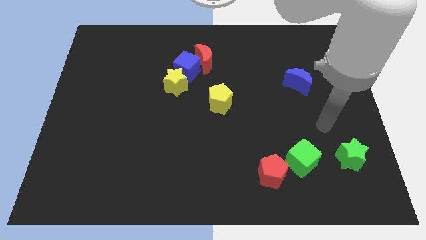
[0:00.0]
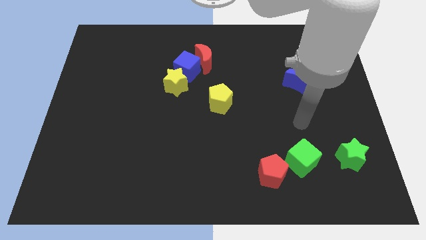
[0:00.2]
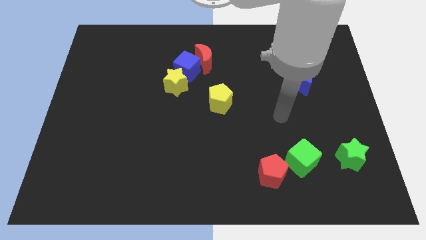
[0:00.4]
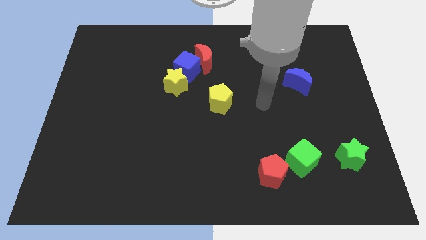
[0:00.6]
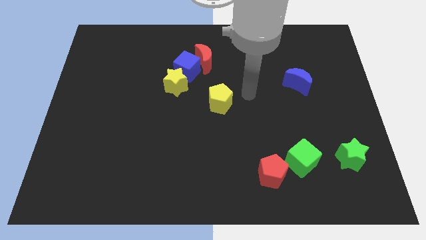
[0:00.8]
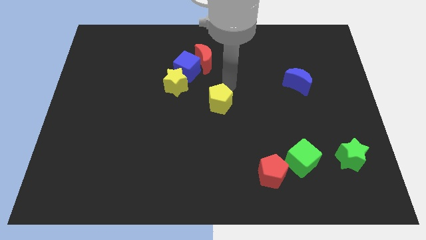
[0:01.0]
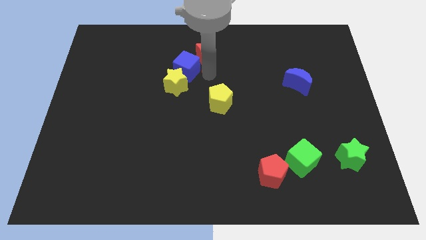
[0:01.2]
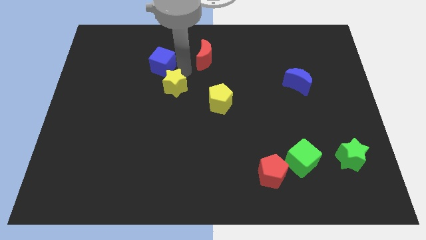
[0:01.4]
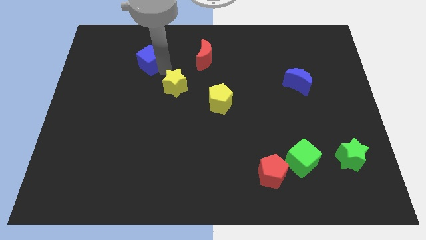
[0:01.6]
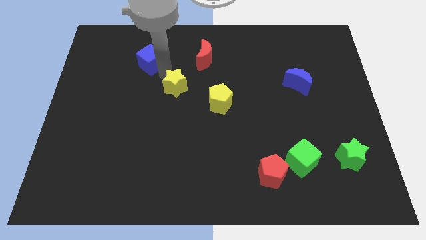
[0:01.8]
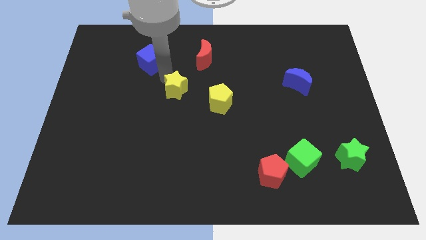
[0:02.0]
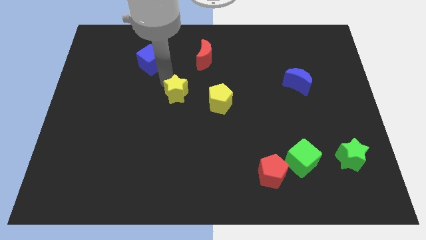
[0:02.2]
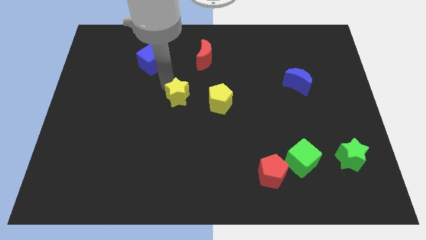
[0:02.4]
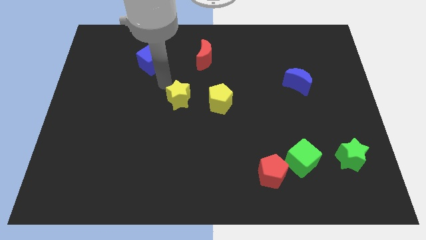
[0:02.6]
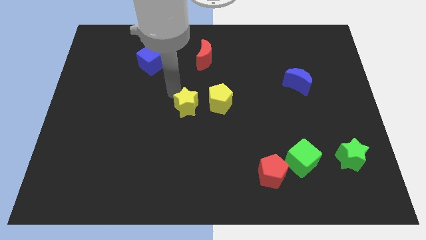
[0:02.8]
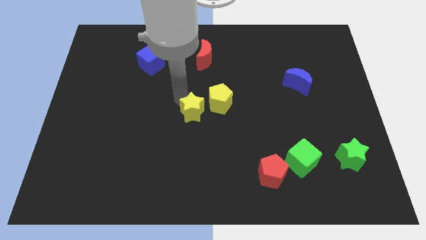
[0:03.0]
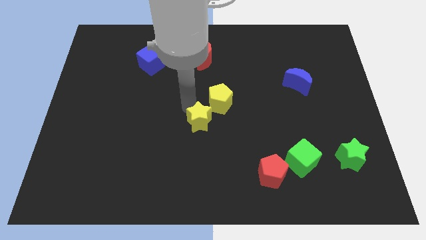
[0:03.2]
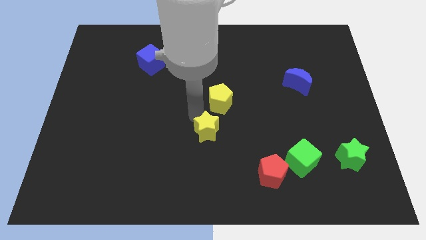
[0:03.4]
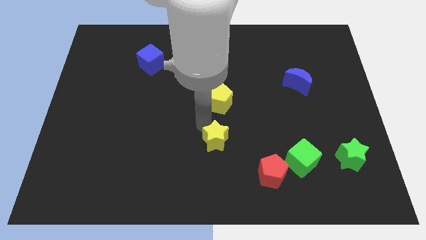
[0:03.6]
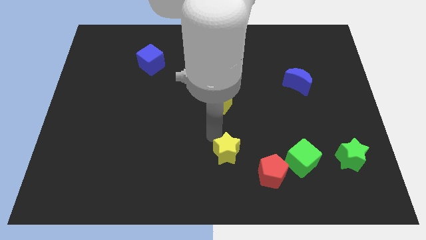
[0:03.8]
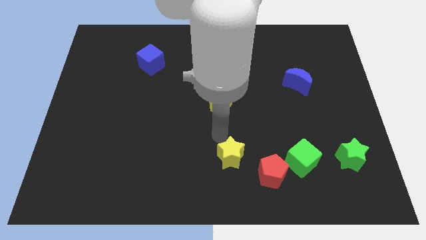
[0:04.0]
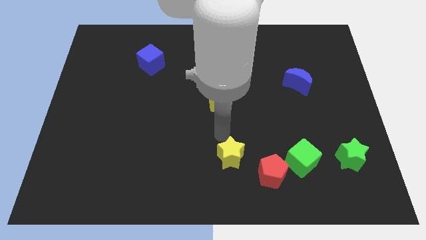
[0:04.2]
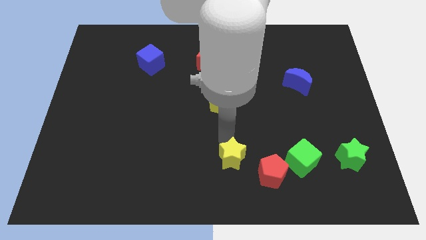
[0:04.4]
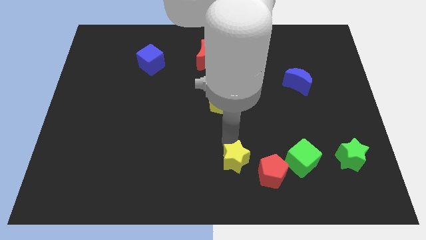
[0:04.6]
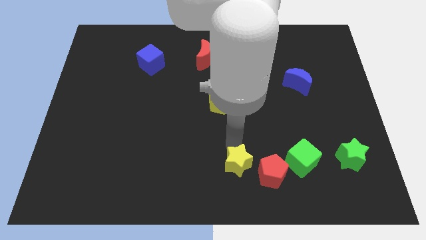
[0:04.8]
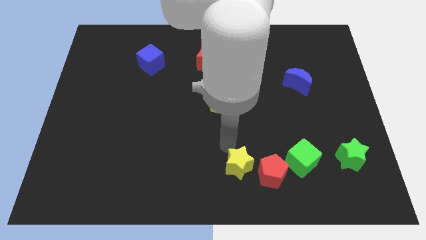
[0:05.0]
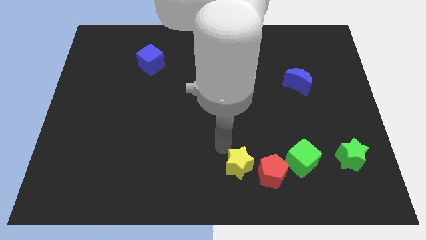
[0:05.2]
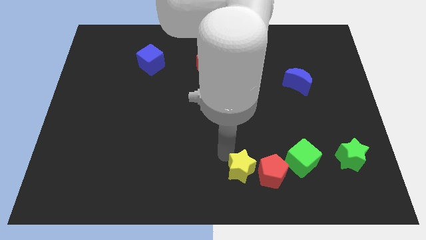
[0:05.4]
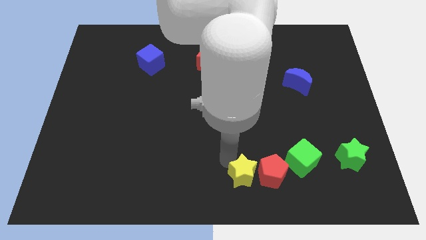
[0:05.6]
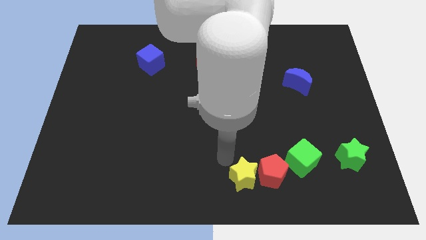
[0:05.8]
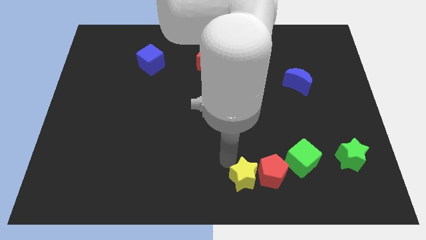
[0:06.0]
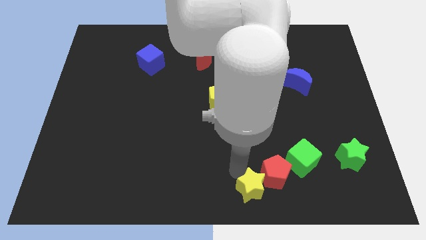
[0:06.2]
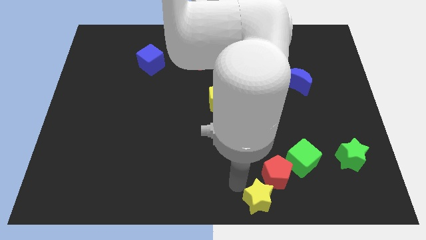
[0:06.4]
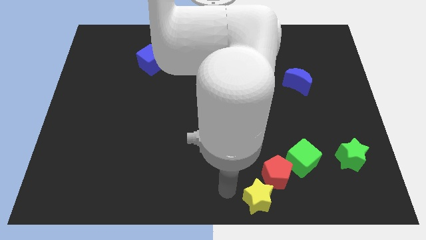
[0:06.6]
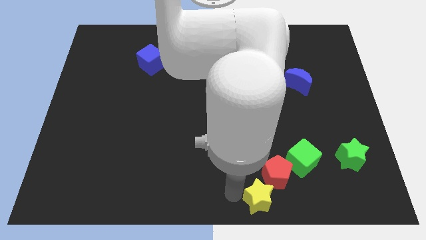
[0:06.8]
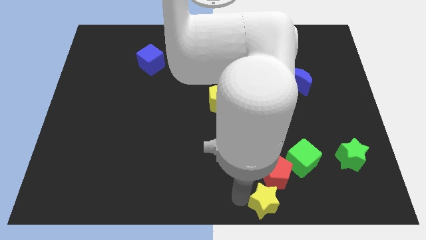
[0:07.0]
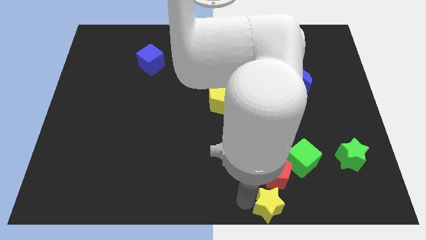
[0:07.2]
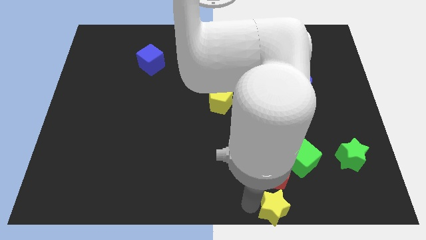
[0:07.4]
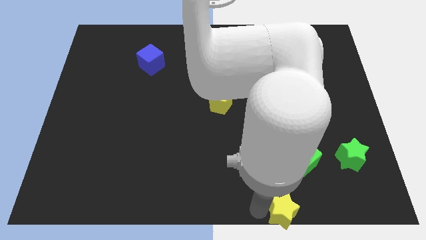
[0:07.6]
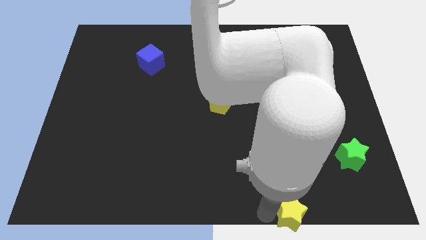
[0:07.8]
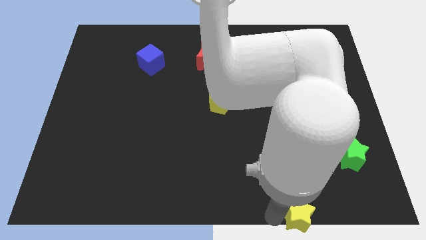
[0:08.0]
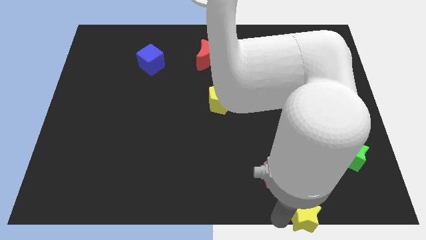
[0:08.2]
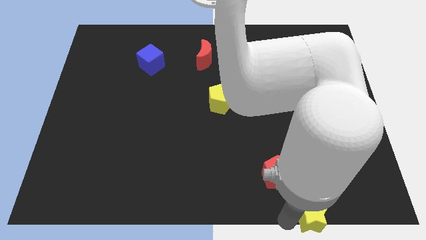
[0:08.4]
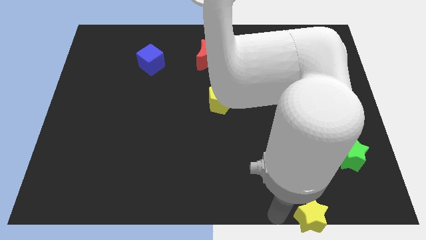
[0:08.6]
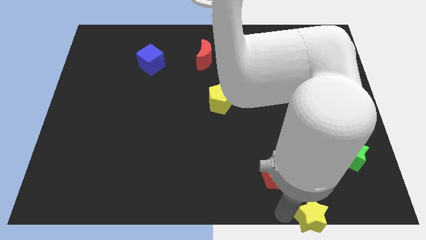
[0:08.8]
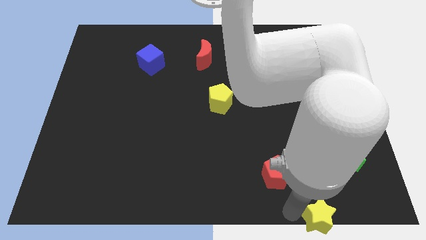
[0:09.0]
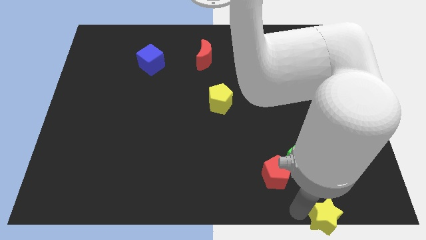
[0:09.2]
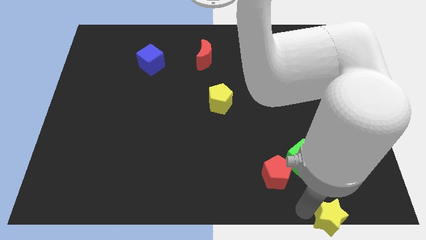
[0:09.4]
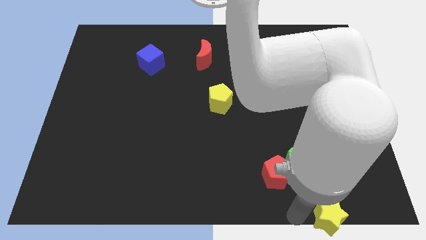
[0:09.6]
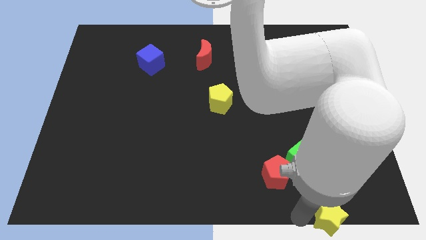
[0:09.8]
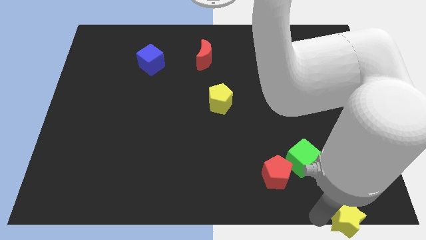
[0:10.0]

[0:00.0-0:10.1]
slide the yellow star to the bottom right corner

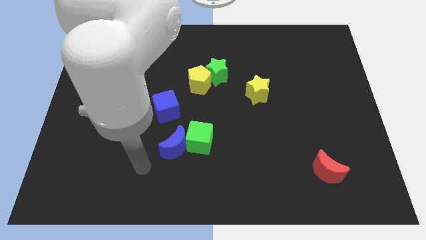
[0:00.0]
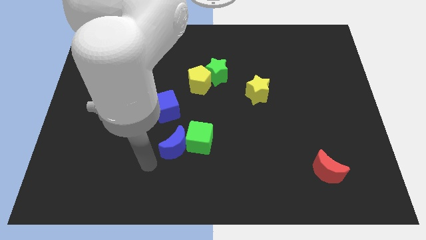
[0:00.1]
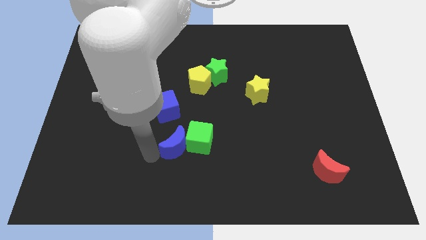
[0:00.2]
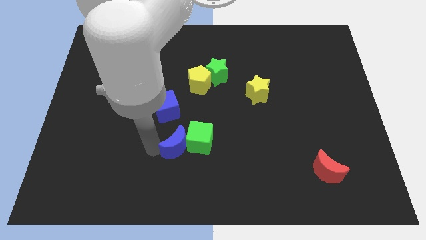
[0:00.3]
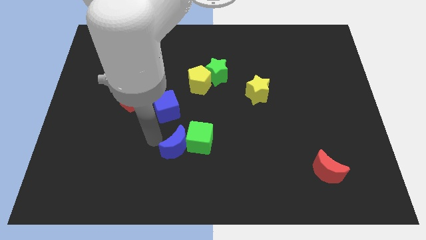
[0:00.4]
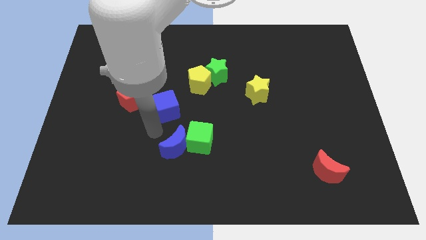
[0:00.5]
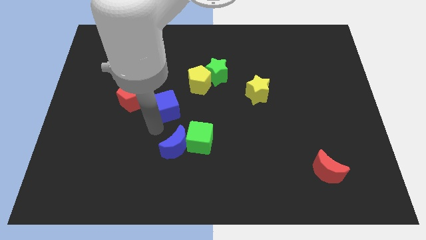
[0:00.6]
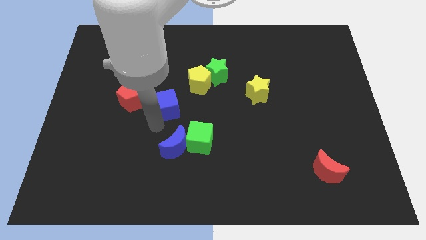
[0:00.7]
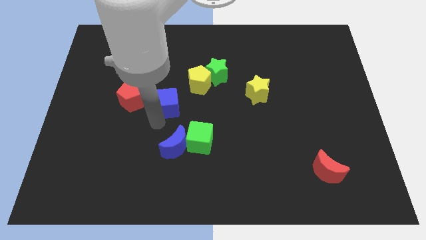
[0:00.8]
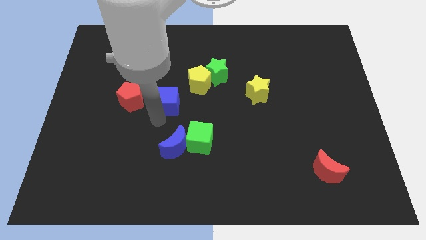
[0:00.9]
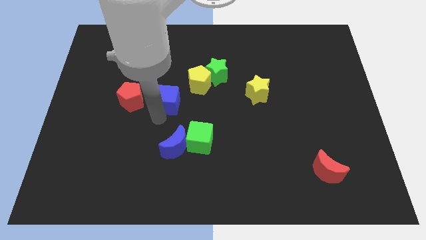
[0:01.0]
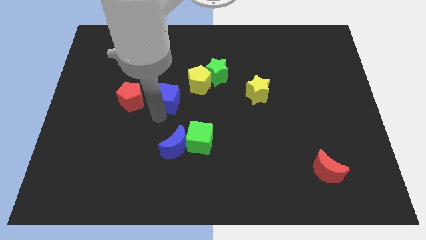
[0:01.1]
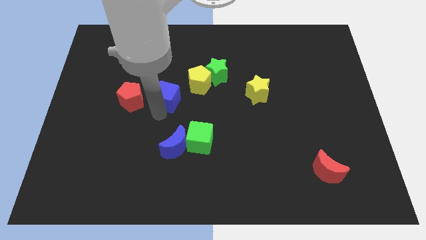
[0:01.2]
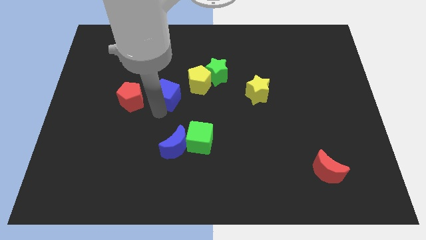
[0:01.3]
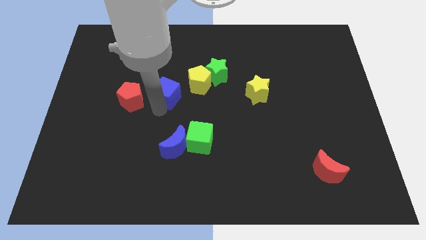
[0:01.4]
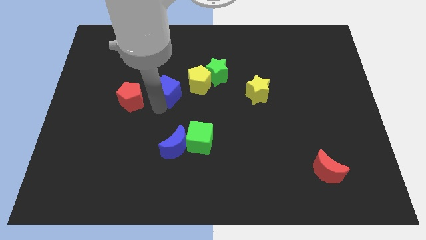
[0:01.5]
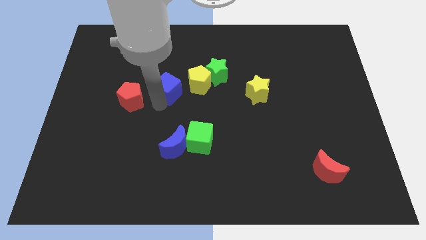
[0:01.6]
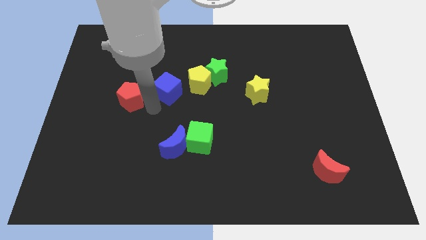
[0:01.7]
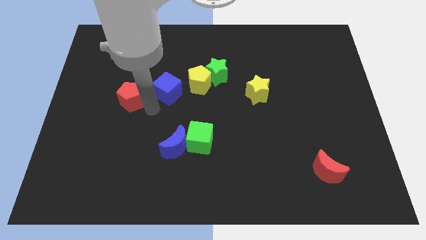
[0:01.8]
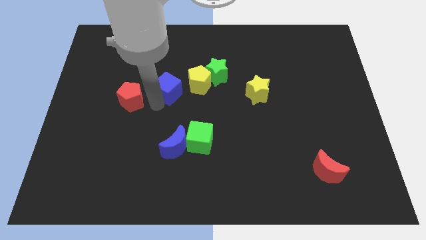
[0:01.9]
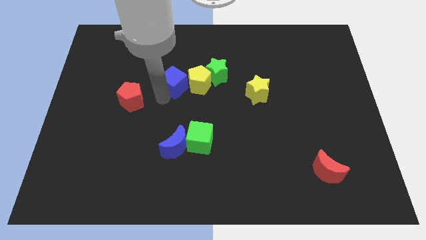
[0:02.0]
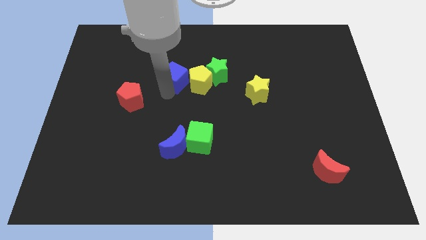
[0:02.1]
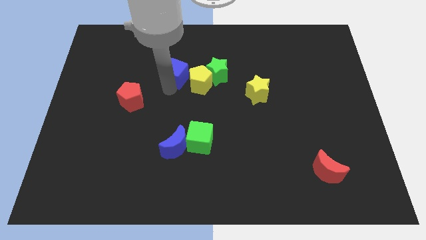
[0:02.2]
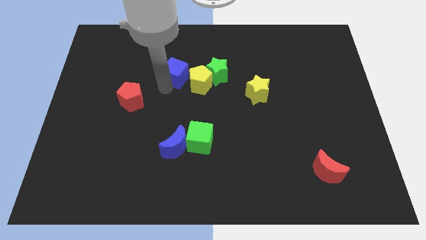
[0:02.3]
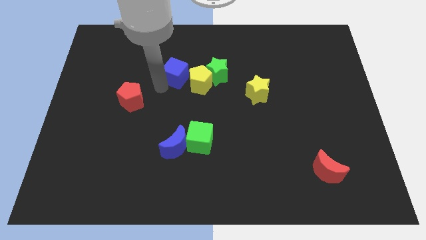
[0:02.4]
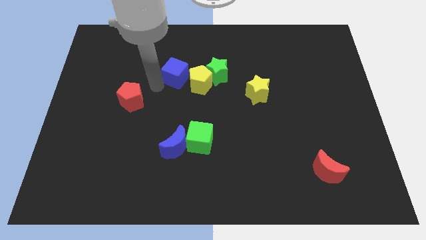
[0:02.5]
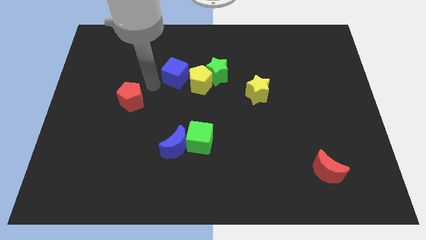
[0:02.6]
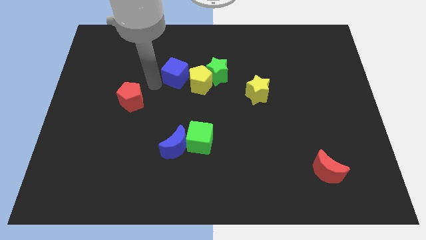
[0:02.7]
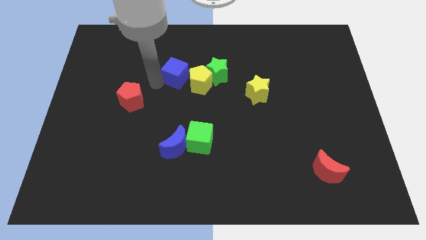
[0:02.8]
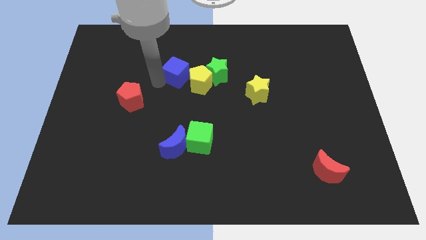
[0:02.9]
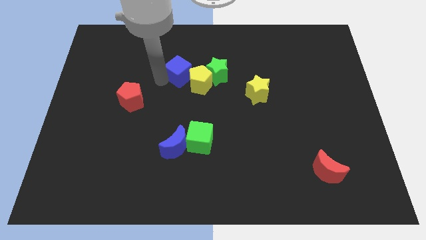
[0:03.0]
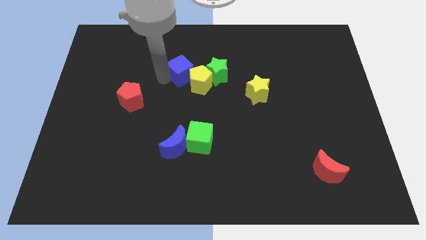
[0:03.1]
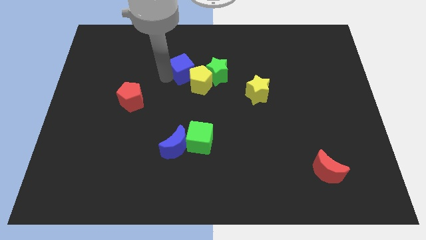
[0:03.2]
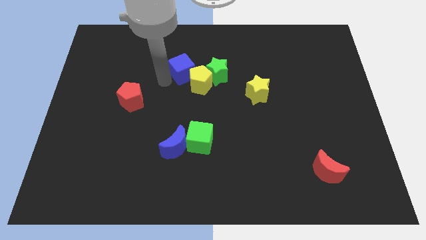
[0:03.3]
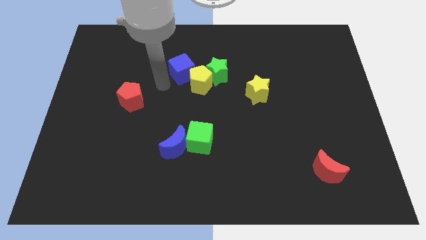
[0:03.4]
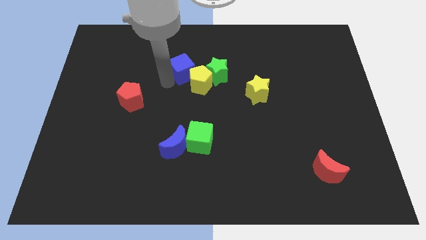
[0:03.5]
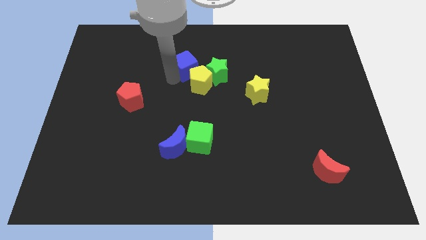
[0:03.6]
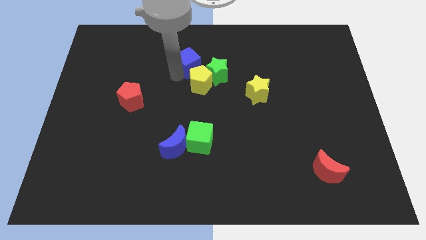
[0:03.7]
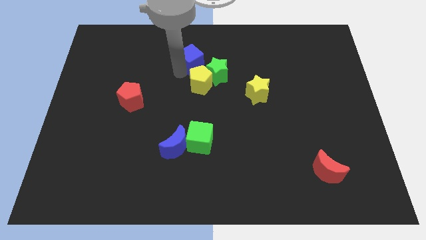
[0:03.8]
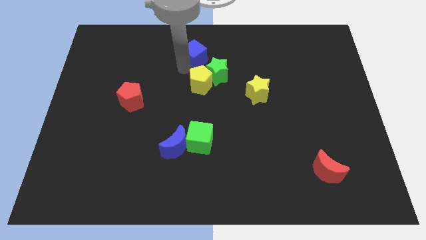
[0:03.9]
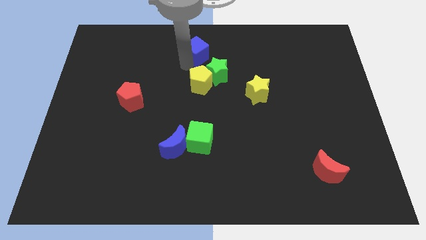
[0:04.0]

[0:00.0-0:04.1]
push the blue cube to the towards your base
